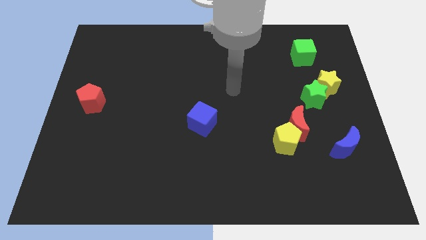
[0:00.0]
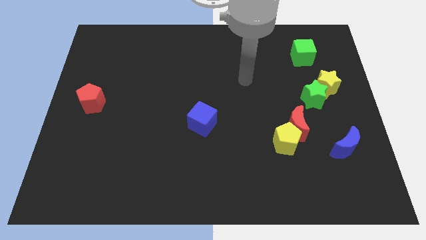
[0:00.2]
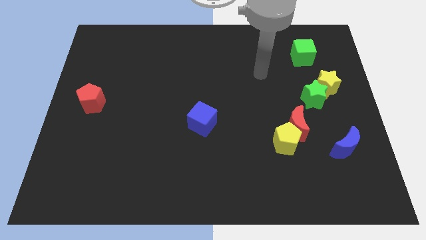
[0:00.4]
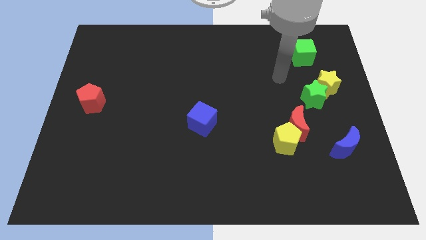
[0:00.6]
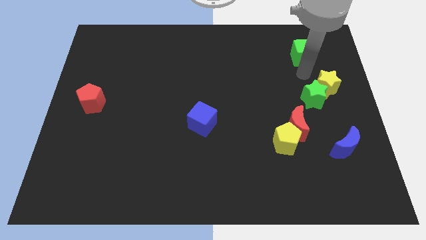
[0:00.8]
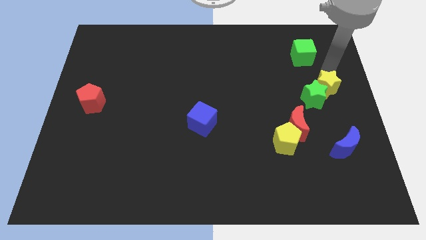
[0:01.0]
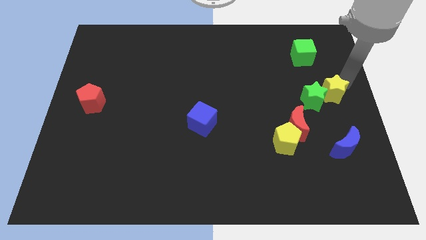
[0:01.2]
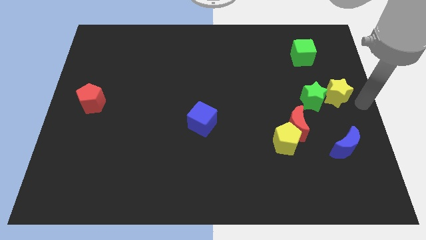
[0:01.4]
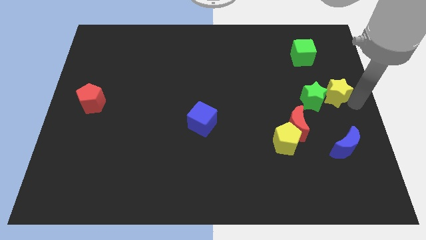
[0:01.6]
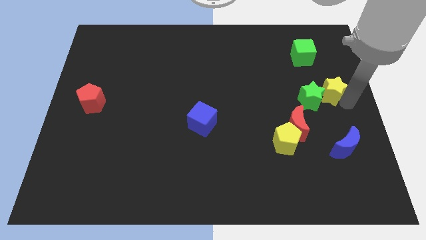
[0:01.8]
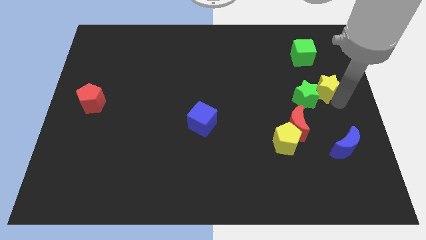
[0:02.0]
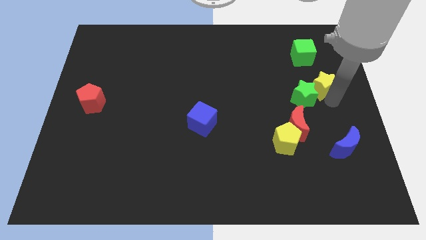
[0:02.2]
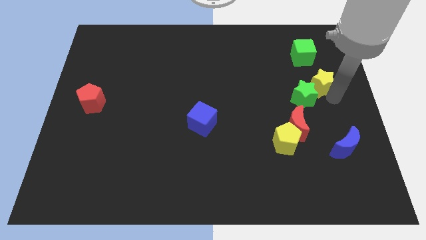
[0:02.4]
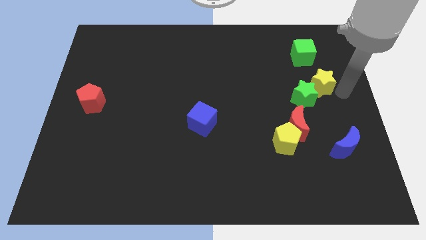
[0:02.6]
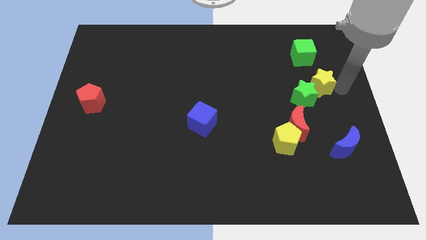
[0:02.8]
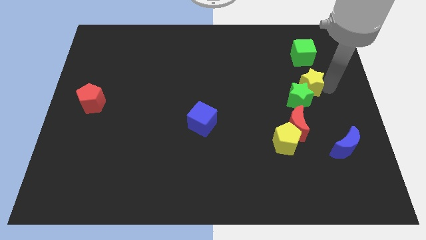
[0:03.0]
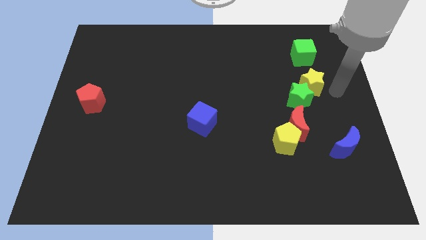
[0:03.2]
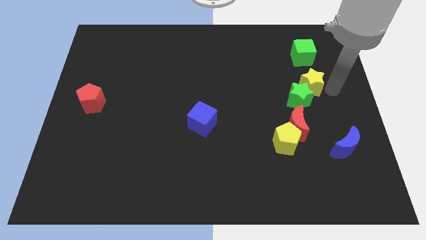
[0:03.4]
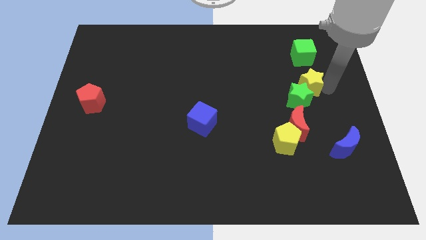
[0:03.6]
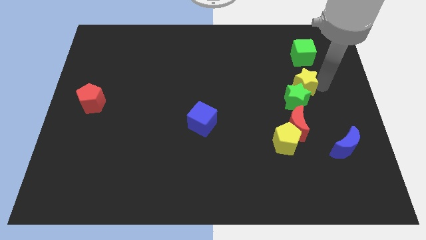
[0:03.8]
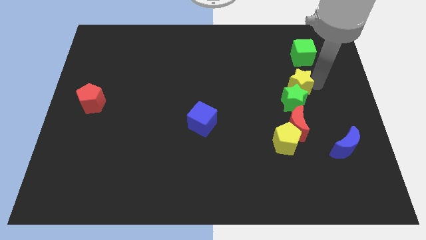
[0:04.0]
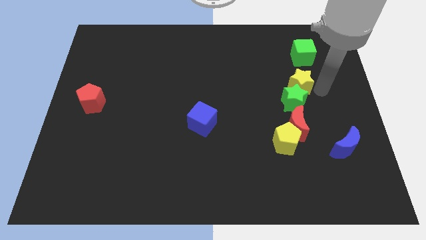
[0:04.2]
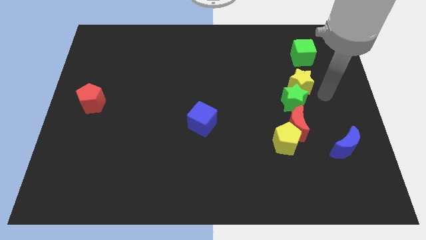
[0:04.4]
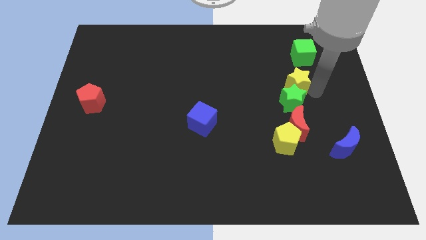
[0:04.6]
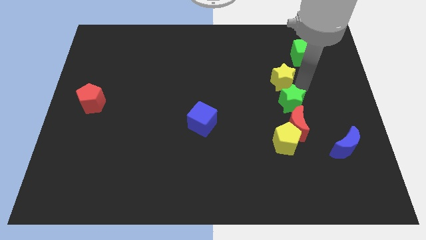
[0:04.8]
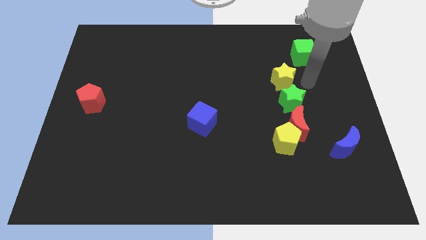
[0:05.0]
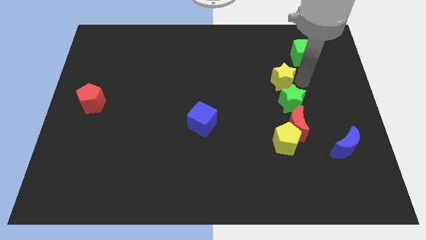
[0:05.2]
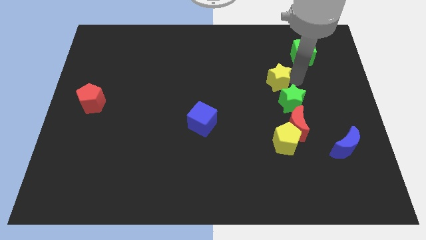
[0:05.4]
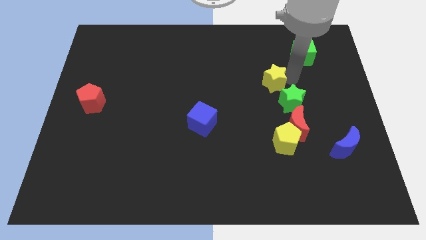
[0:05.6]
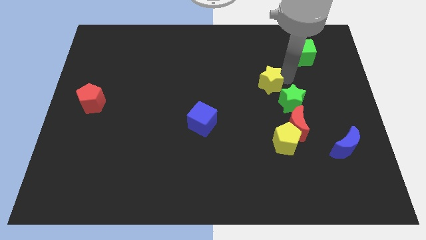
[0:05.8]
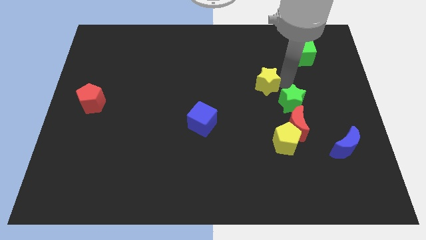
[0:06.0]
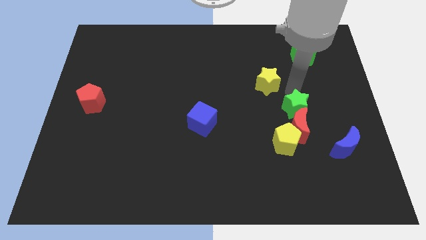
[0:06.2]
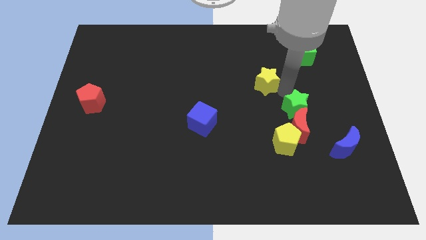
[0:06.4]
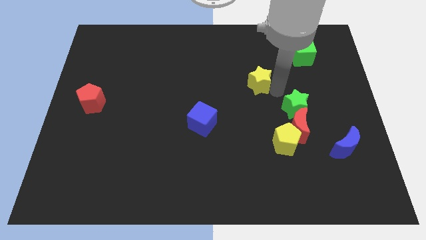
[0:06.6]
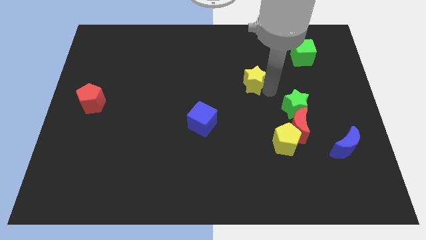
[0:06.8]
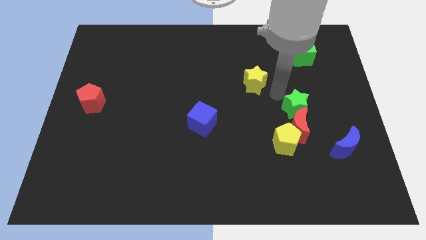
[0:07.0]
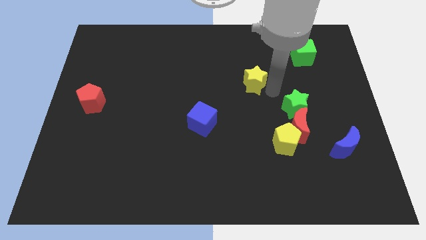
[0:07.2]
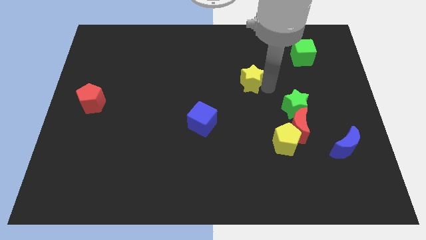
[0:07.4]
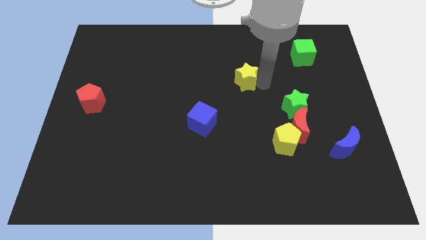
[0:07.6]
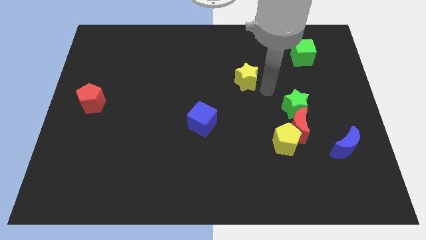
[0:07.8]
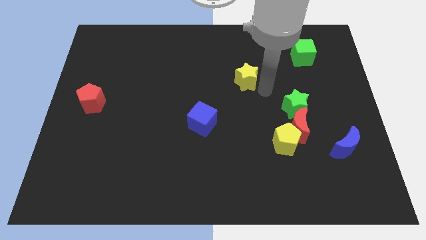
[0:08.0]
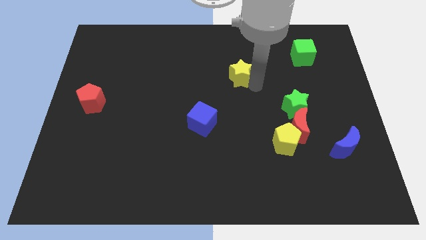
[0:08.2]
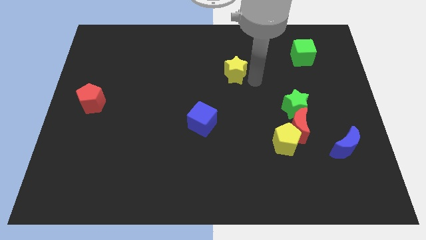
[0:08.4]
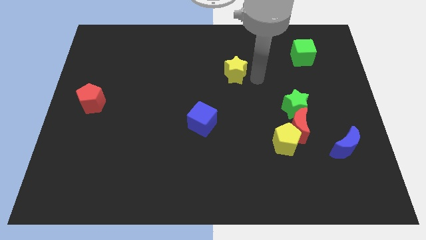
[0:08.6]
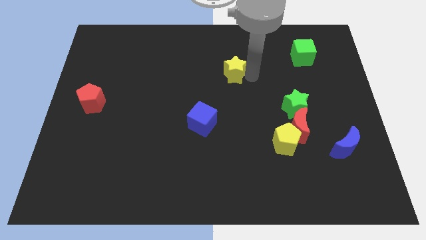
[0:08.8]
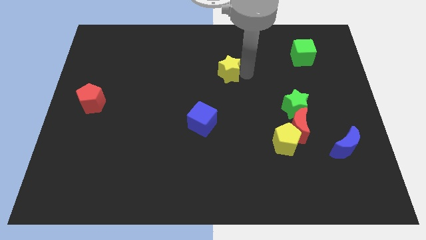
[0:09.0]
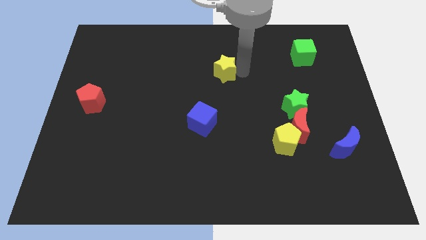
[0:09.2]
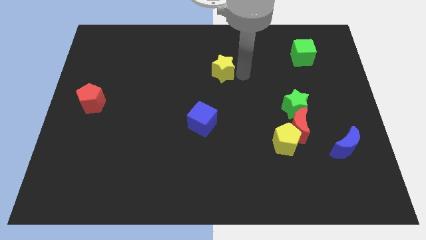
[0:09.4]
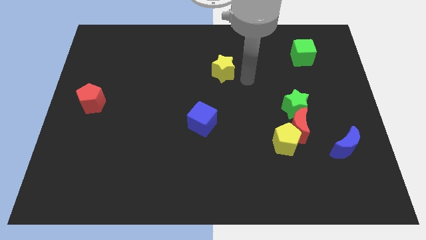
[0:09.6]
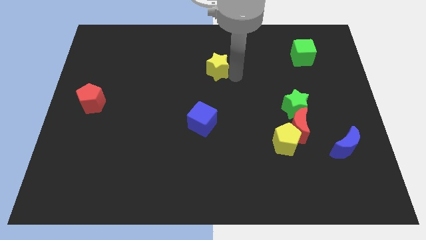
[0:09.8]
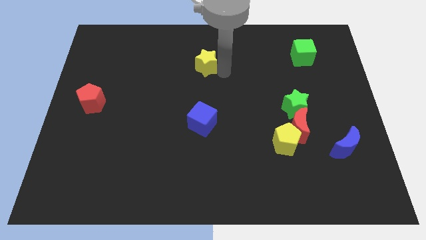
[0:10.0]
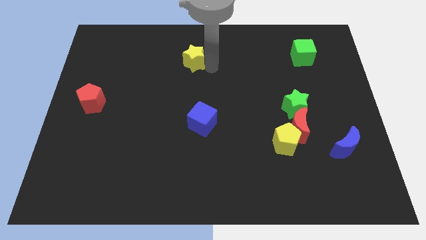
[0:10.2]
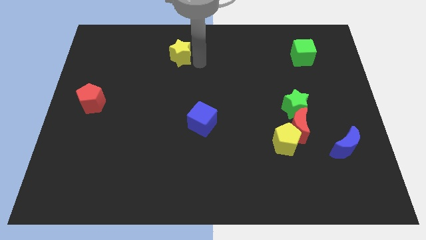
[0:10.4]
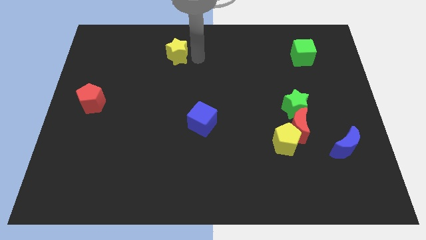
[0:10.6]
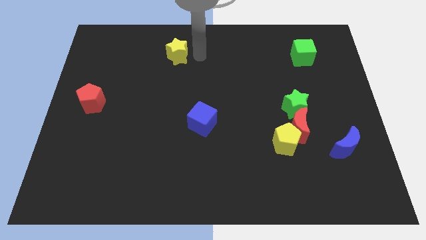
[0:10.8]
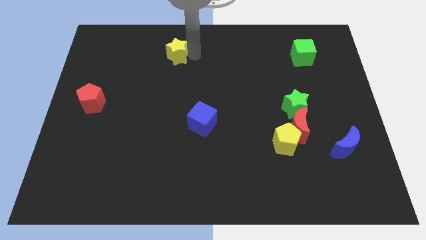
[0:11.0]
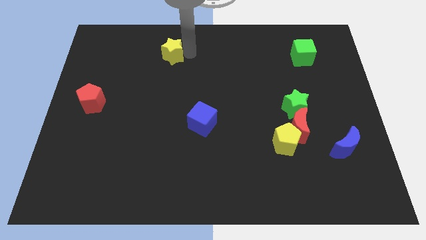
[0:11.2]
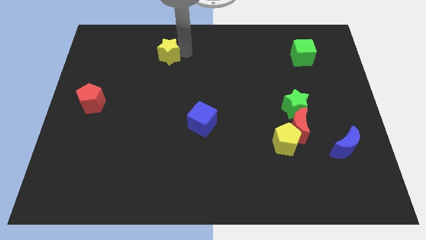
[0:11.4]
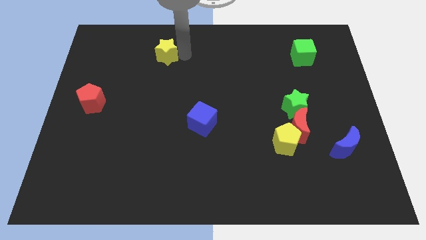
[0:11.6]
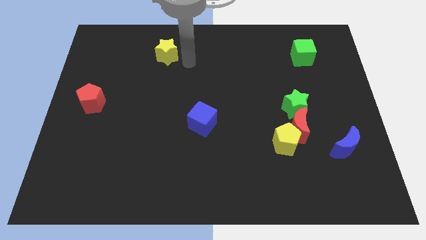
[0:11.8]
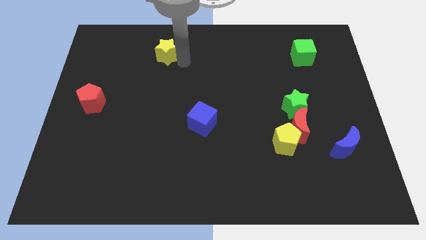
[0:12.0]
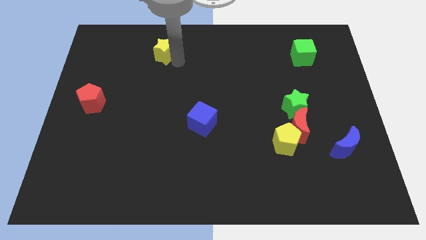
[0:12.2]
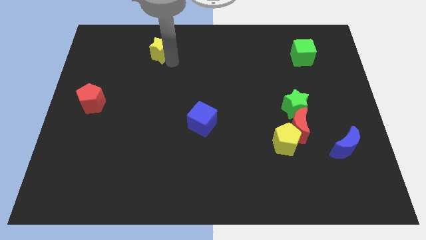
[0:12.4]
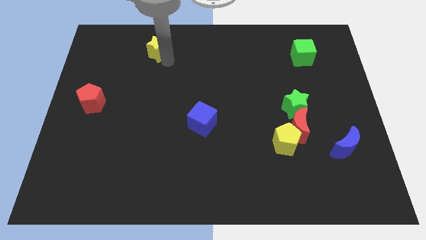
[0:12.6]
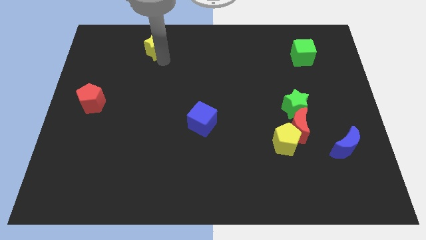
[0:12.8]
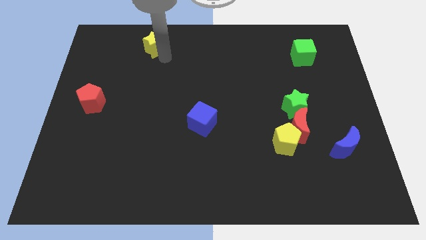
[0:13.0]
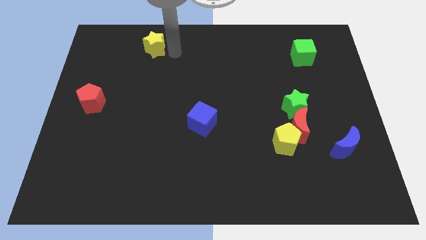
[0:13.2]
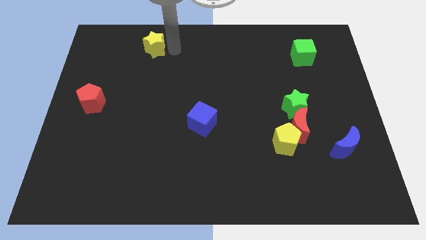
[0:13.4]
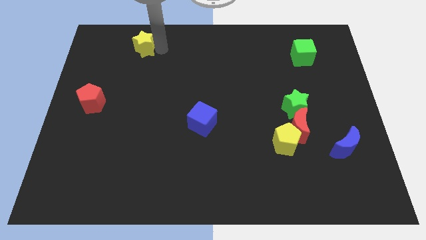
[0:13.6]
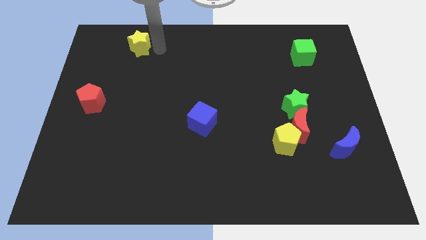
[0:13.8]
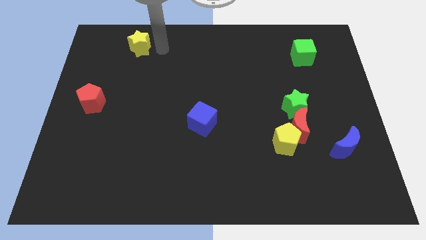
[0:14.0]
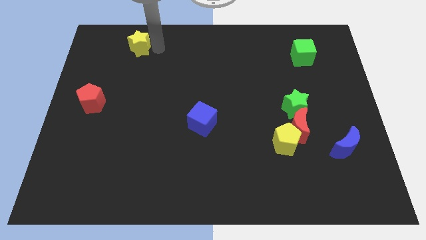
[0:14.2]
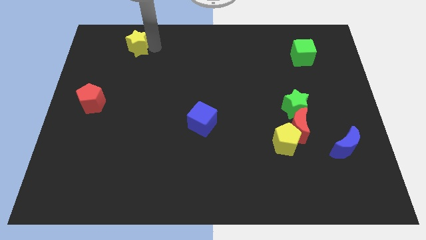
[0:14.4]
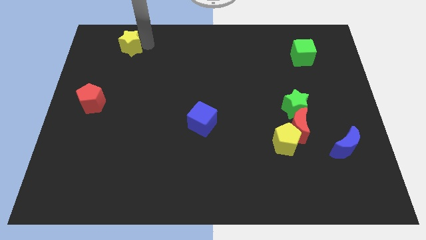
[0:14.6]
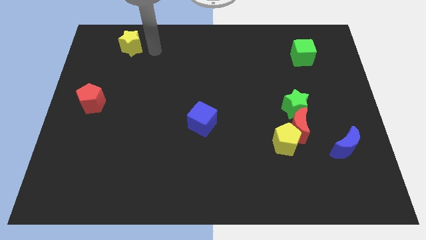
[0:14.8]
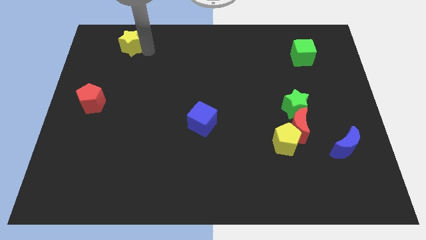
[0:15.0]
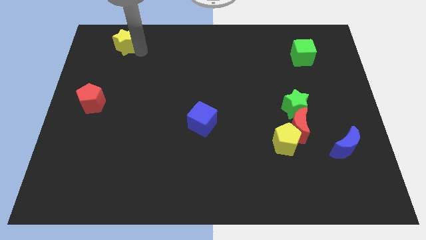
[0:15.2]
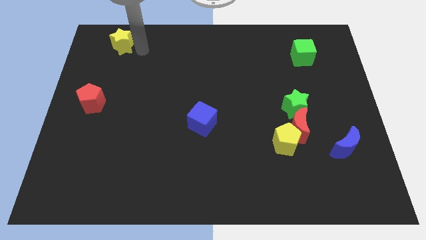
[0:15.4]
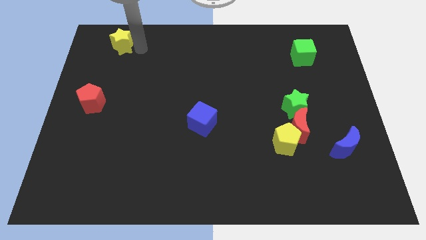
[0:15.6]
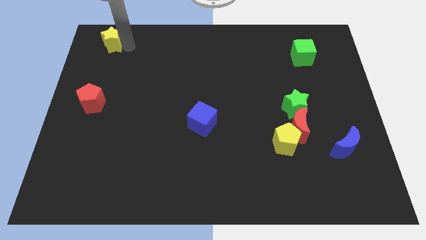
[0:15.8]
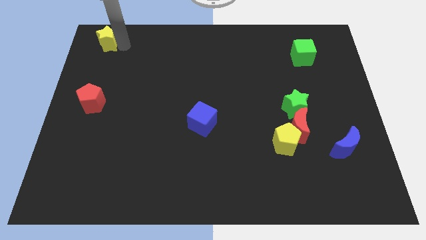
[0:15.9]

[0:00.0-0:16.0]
push the yellow star to the top left corner
